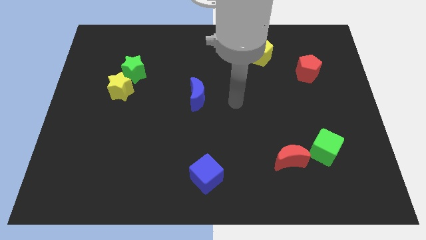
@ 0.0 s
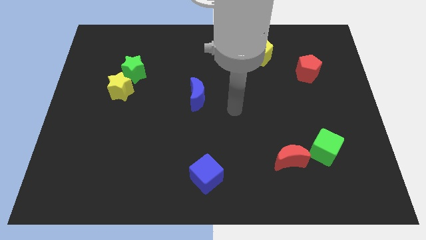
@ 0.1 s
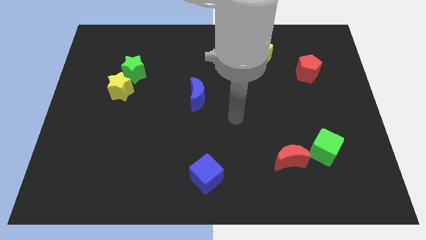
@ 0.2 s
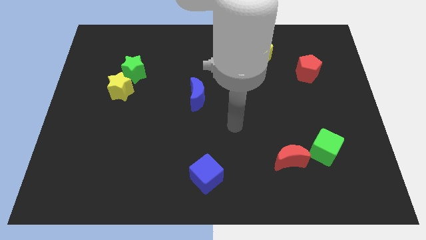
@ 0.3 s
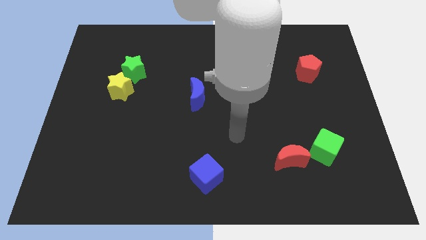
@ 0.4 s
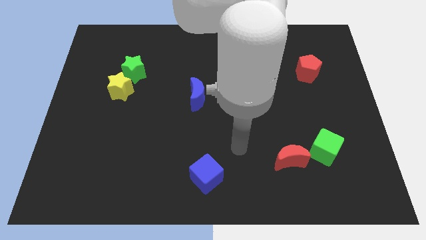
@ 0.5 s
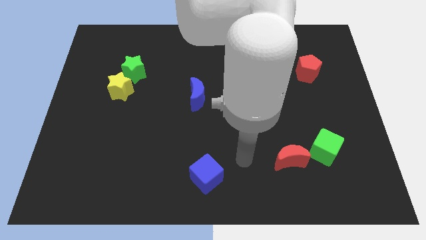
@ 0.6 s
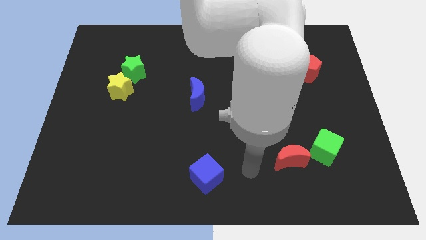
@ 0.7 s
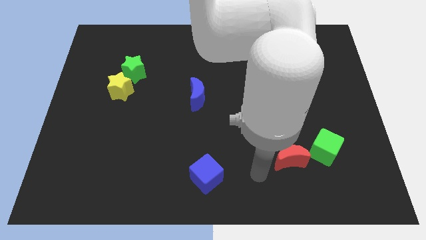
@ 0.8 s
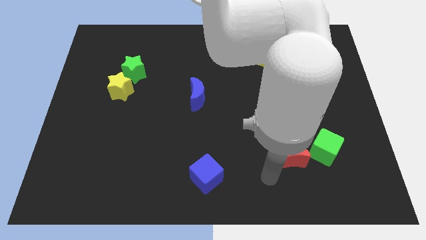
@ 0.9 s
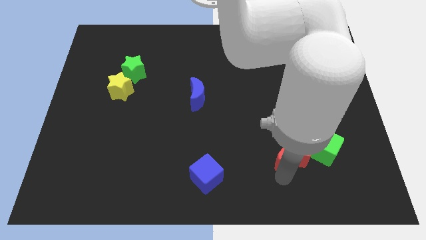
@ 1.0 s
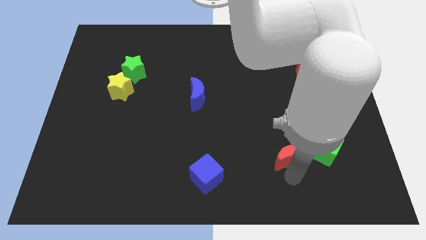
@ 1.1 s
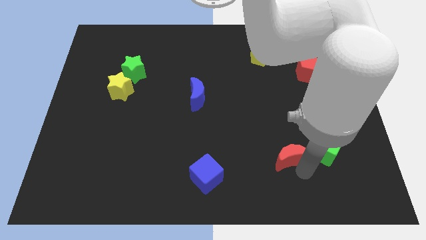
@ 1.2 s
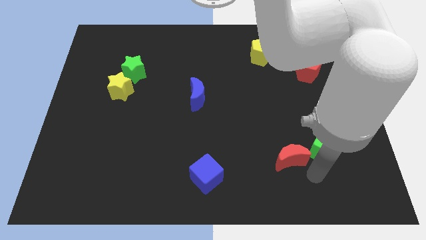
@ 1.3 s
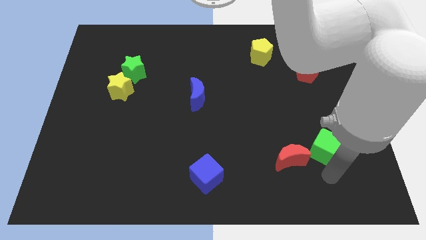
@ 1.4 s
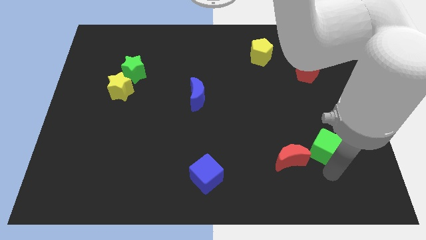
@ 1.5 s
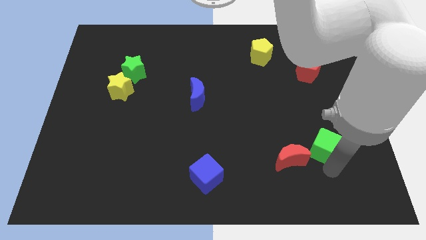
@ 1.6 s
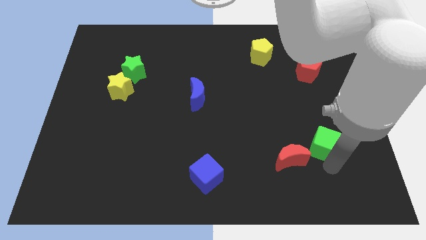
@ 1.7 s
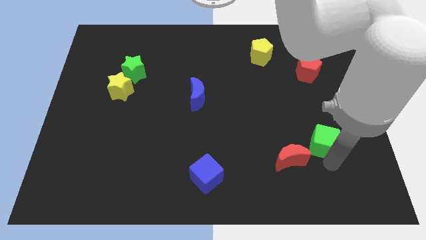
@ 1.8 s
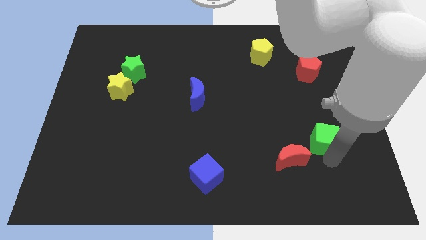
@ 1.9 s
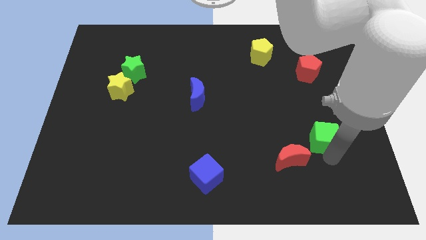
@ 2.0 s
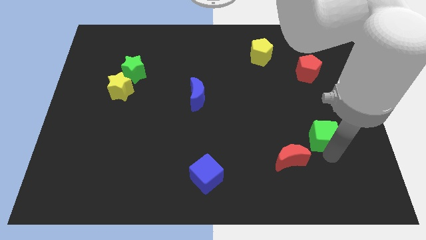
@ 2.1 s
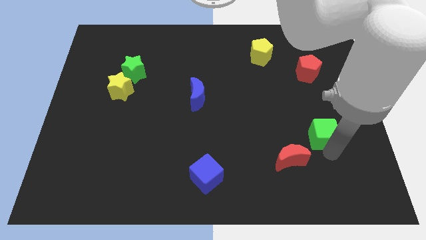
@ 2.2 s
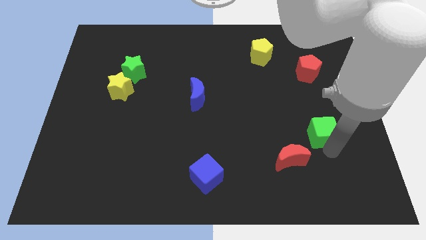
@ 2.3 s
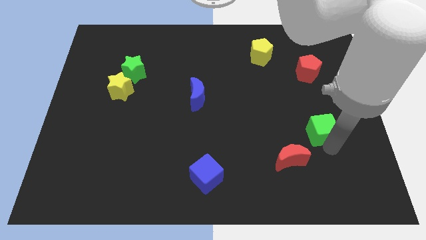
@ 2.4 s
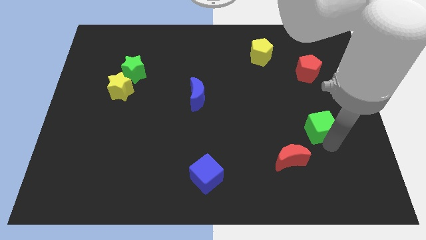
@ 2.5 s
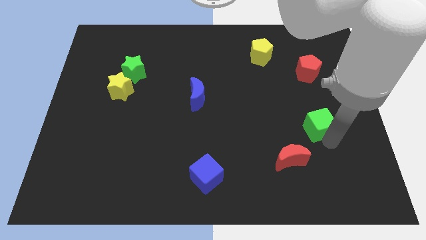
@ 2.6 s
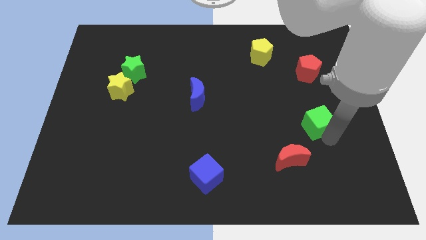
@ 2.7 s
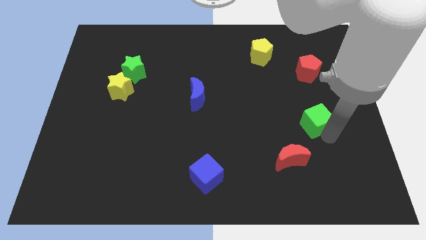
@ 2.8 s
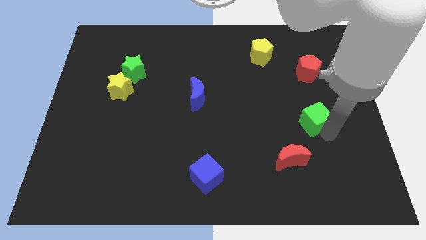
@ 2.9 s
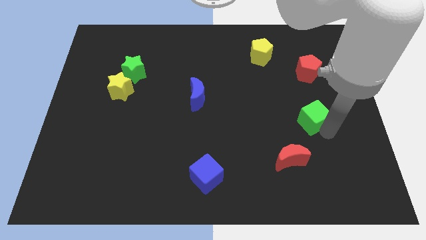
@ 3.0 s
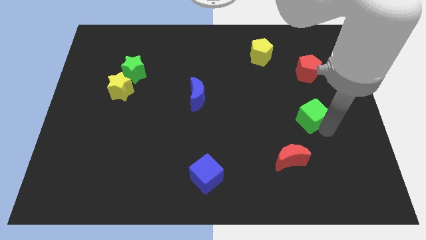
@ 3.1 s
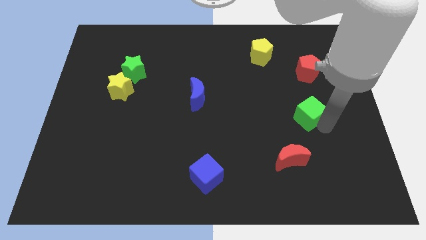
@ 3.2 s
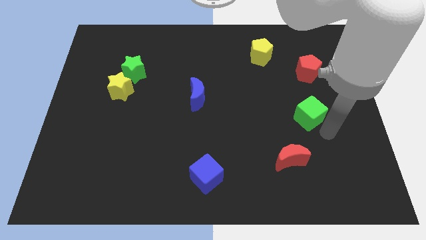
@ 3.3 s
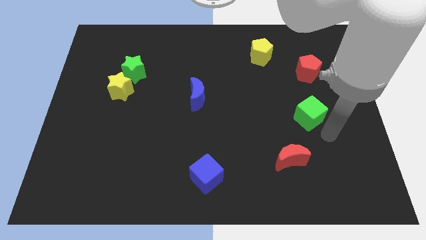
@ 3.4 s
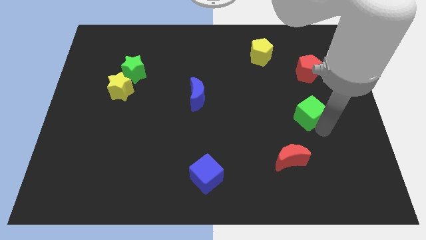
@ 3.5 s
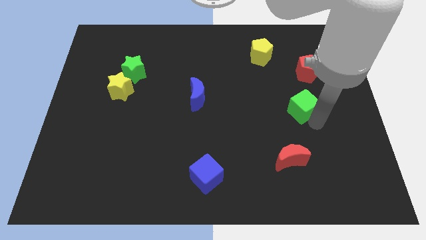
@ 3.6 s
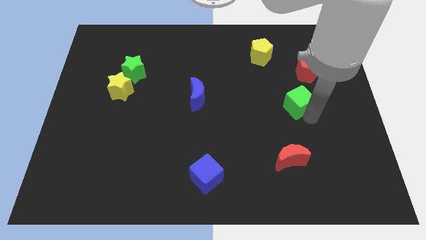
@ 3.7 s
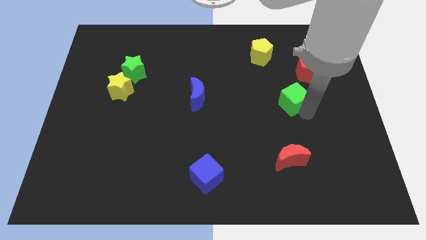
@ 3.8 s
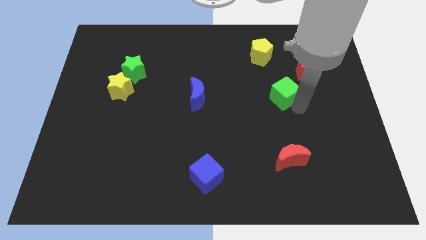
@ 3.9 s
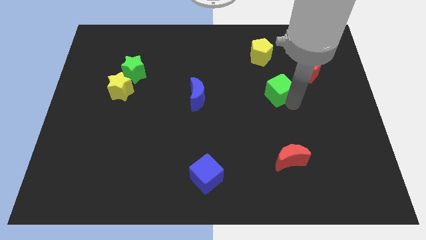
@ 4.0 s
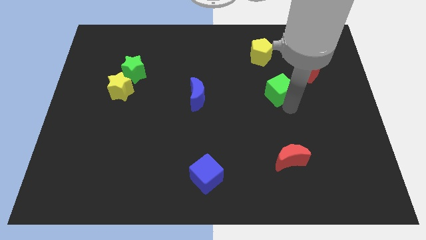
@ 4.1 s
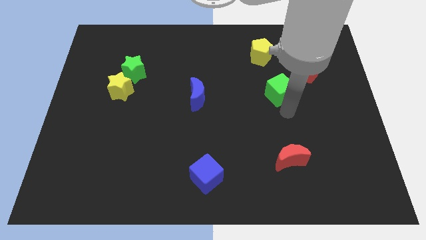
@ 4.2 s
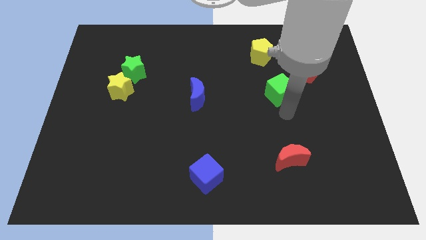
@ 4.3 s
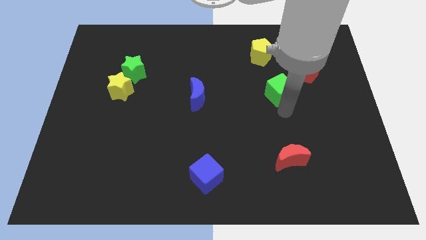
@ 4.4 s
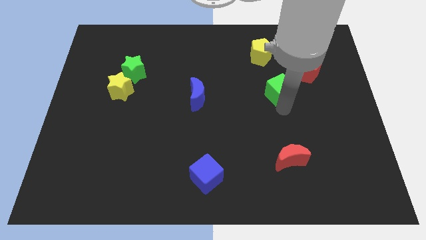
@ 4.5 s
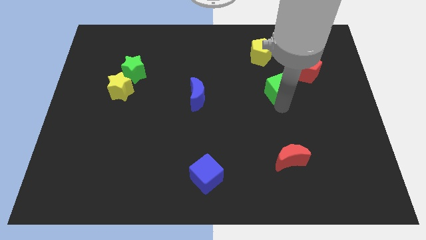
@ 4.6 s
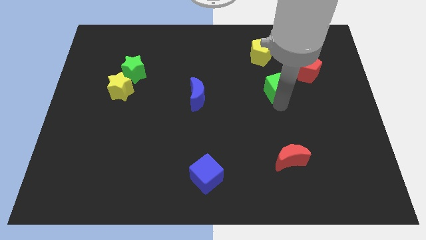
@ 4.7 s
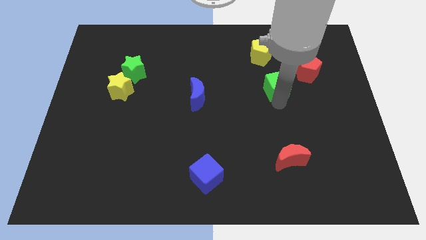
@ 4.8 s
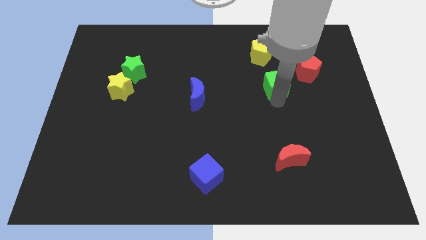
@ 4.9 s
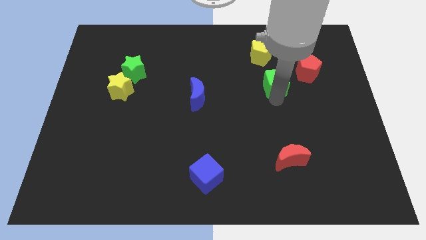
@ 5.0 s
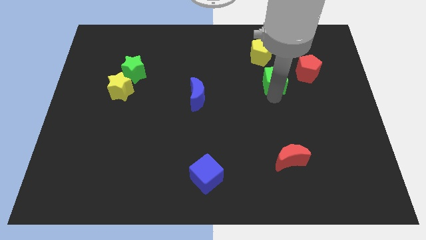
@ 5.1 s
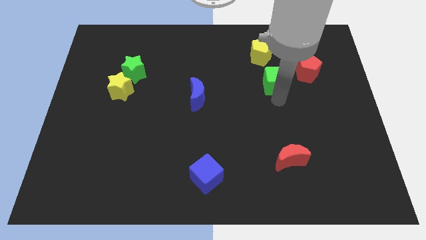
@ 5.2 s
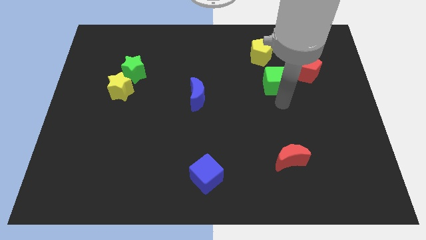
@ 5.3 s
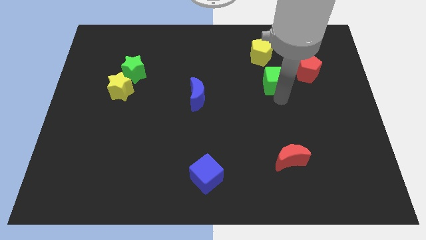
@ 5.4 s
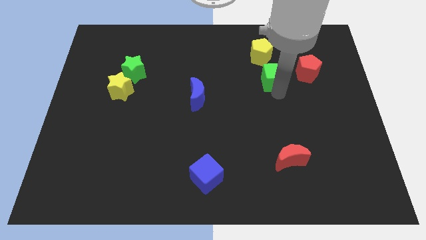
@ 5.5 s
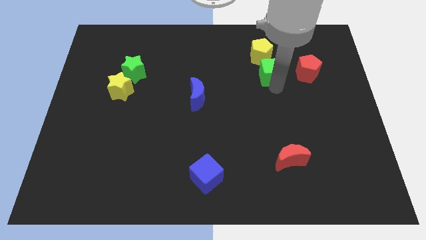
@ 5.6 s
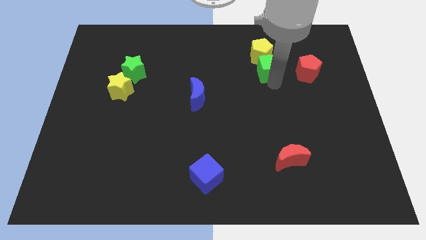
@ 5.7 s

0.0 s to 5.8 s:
put the green cube next to the yellow pentagon

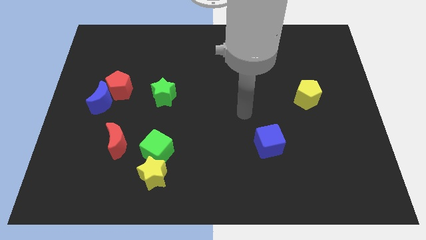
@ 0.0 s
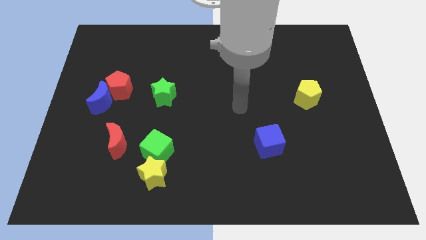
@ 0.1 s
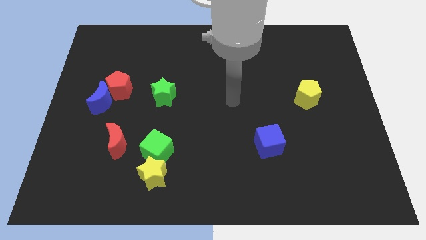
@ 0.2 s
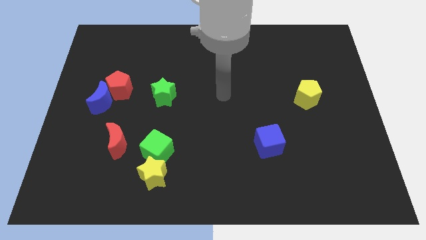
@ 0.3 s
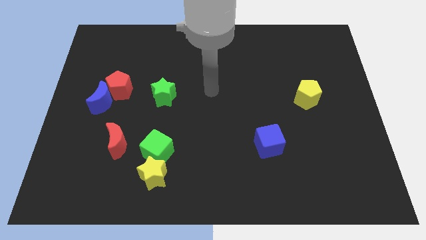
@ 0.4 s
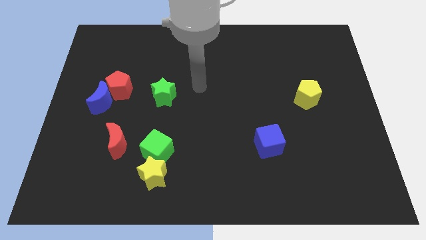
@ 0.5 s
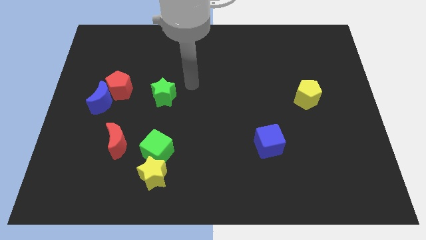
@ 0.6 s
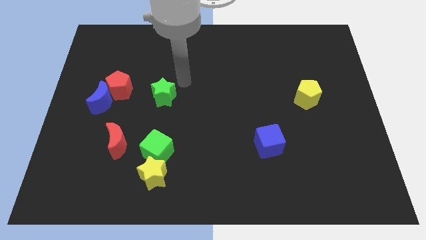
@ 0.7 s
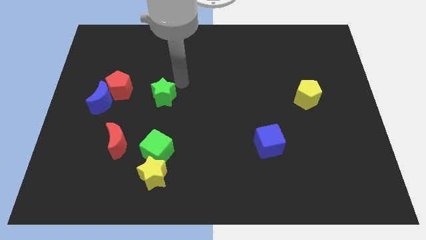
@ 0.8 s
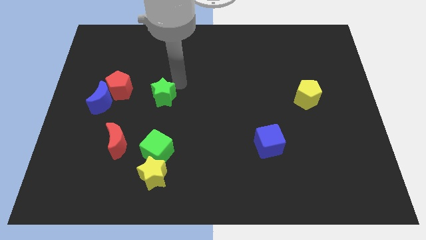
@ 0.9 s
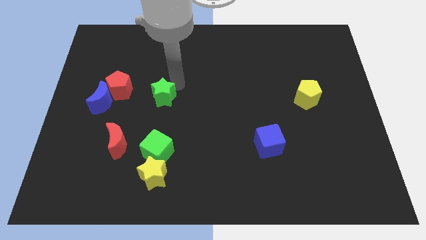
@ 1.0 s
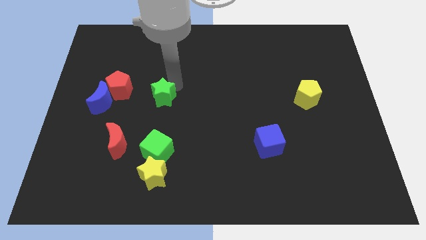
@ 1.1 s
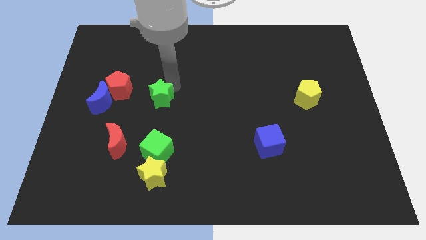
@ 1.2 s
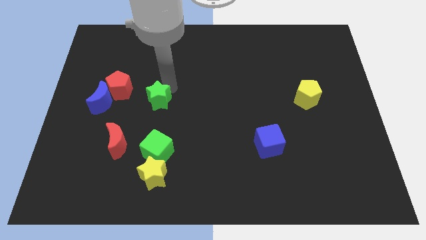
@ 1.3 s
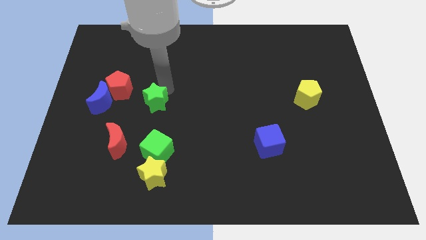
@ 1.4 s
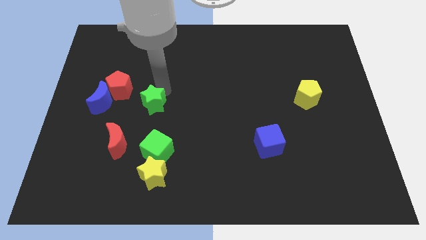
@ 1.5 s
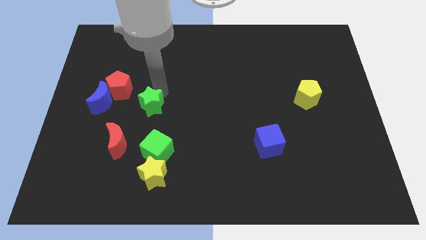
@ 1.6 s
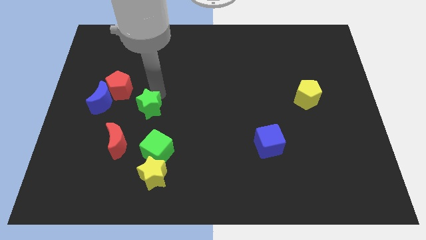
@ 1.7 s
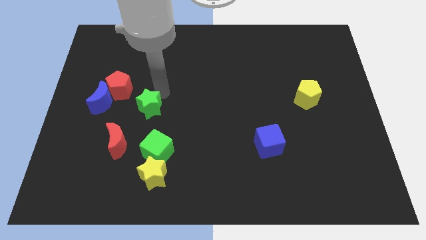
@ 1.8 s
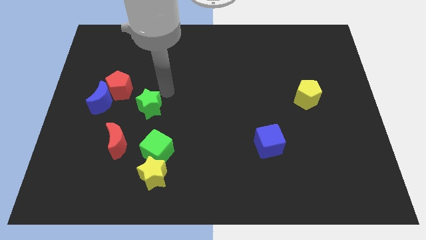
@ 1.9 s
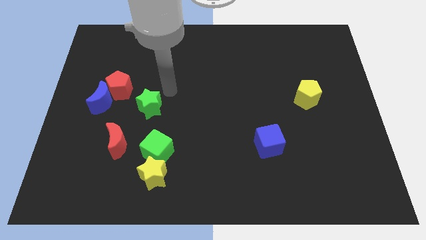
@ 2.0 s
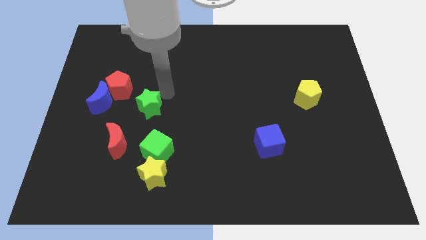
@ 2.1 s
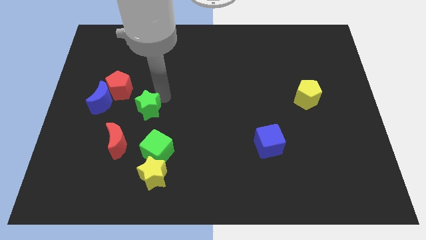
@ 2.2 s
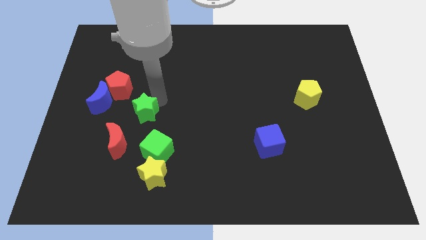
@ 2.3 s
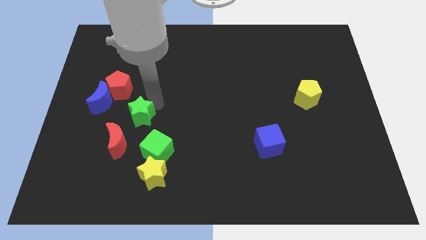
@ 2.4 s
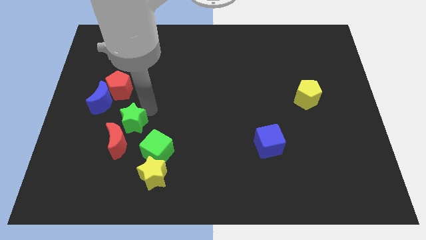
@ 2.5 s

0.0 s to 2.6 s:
put the green star to the red moon
